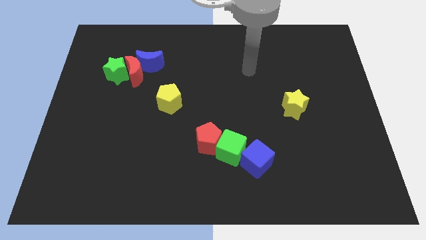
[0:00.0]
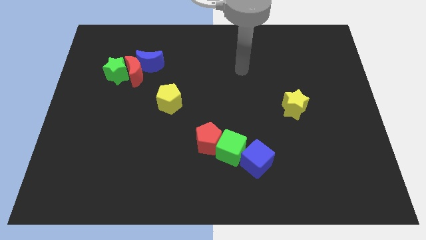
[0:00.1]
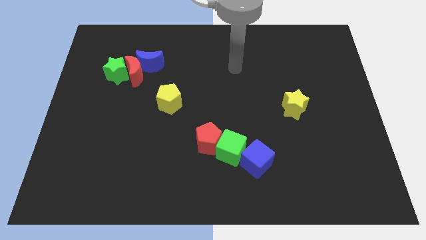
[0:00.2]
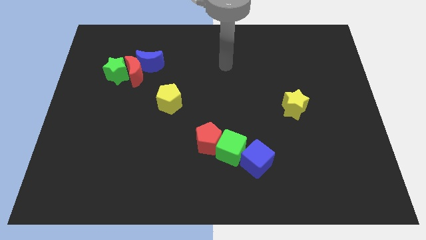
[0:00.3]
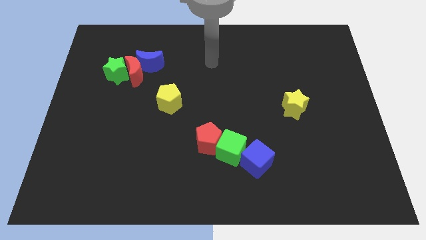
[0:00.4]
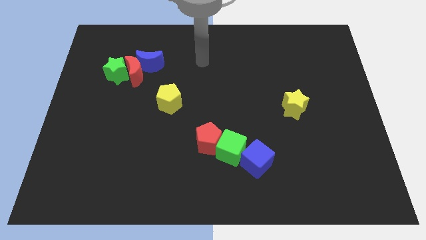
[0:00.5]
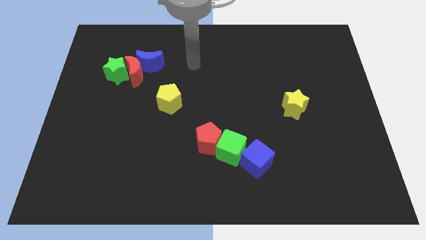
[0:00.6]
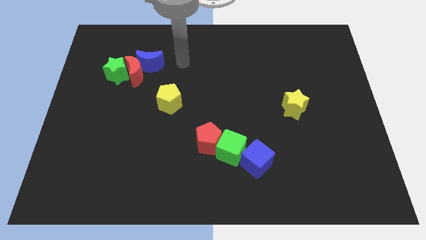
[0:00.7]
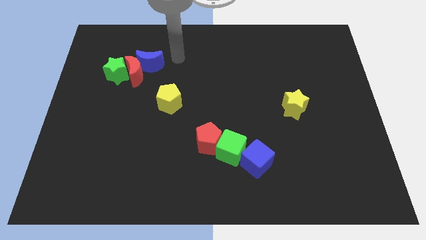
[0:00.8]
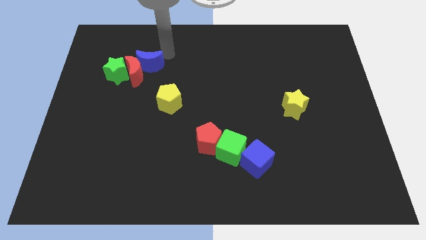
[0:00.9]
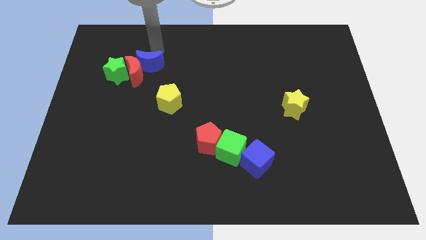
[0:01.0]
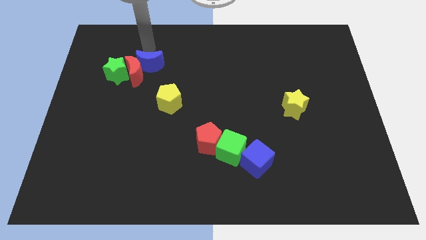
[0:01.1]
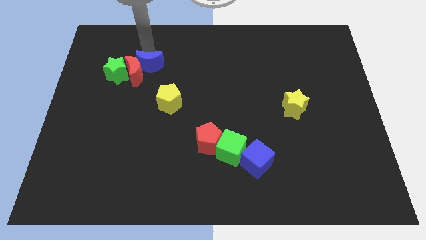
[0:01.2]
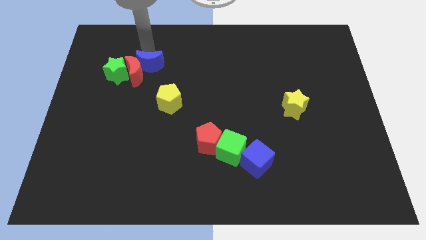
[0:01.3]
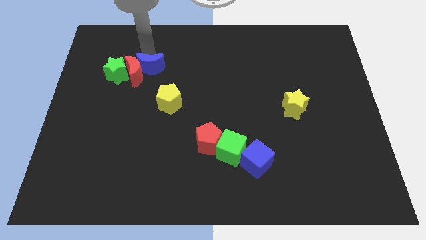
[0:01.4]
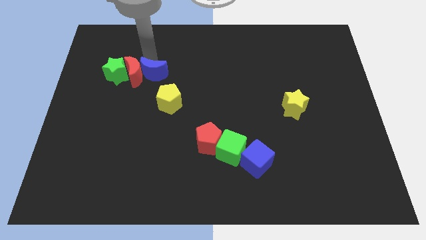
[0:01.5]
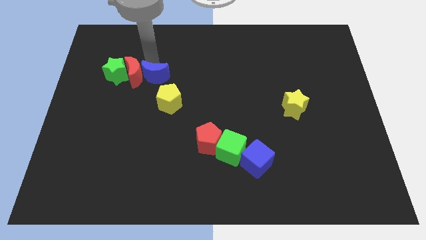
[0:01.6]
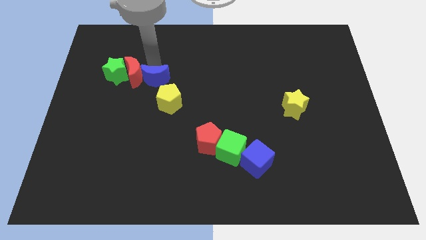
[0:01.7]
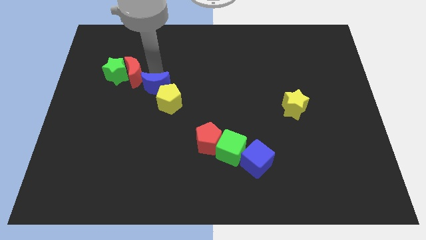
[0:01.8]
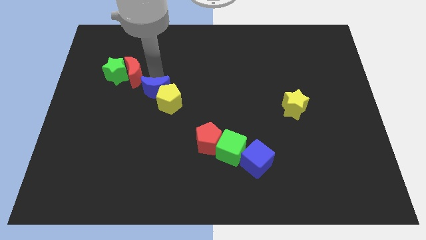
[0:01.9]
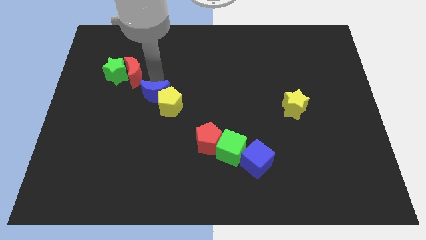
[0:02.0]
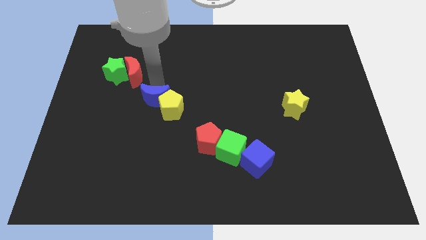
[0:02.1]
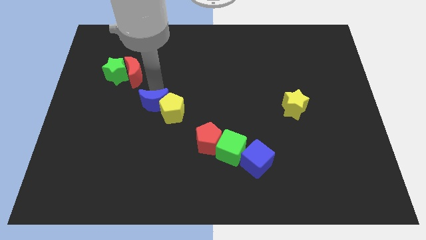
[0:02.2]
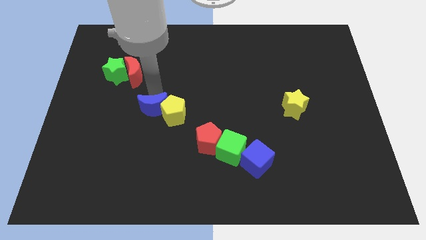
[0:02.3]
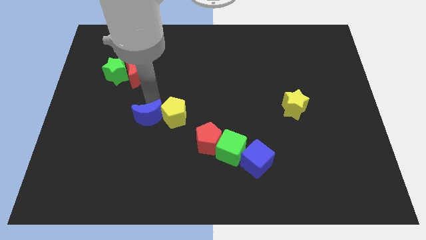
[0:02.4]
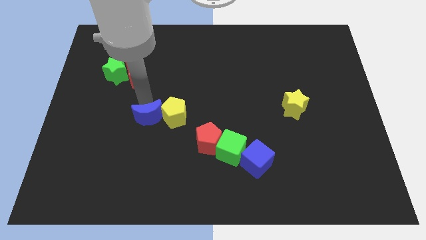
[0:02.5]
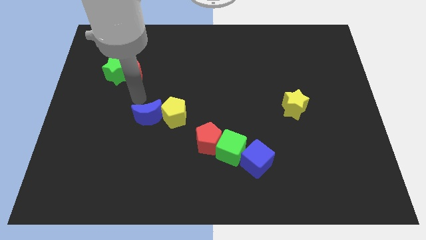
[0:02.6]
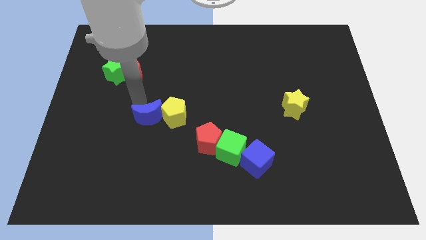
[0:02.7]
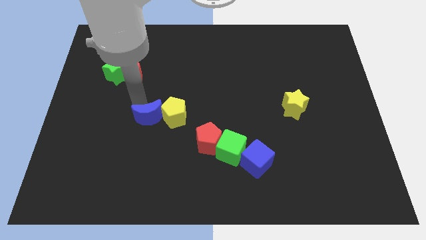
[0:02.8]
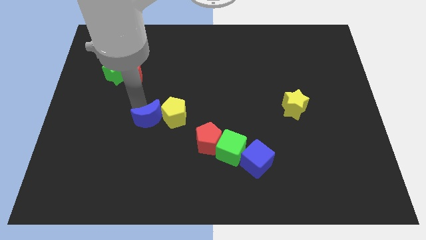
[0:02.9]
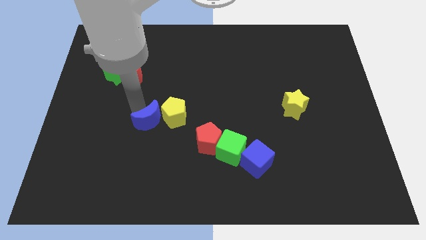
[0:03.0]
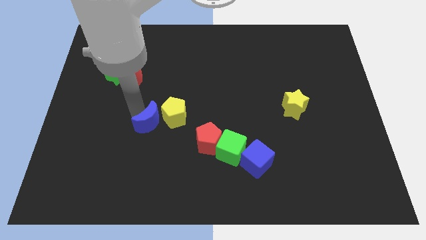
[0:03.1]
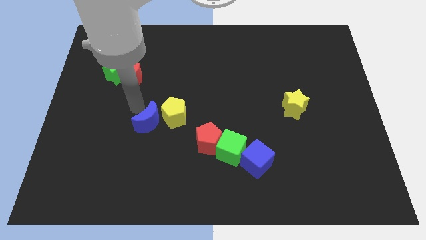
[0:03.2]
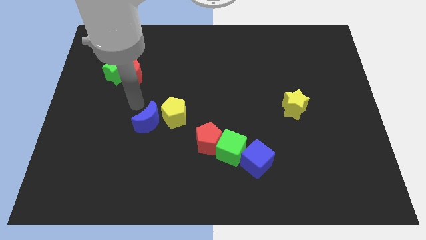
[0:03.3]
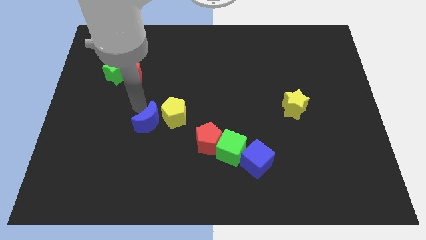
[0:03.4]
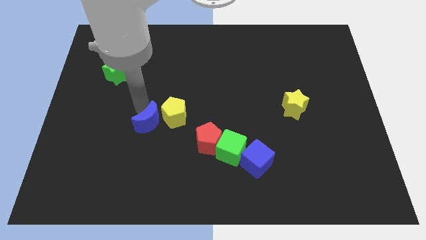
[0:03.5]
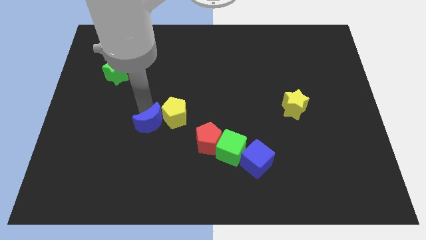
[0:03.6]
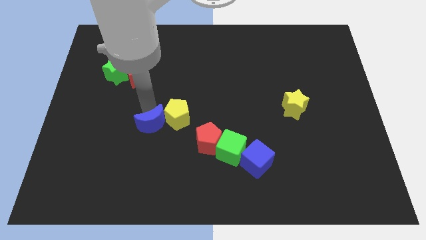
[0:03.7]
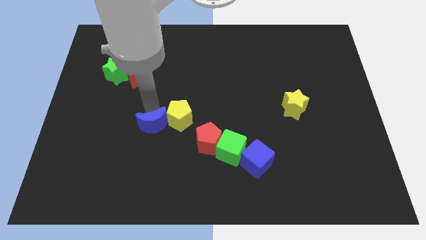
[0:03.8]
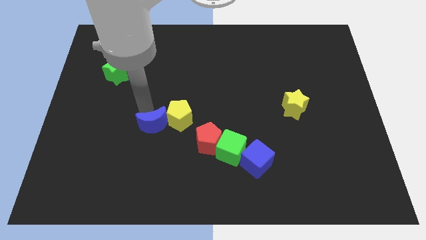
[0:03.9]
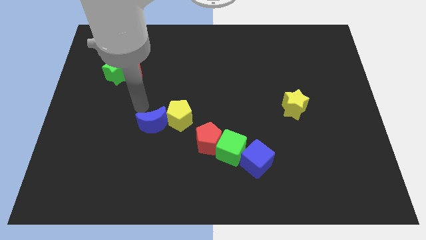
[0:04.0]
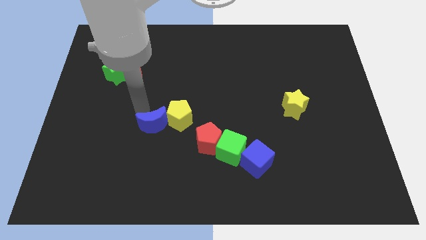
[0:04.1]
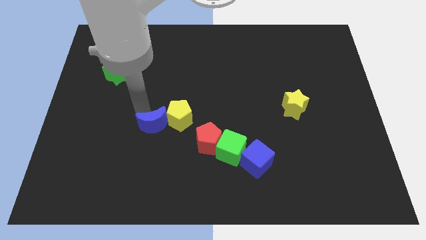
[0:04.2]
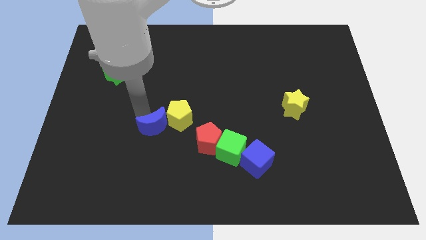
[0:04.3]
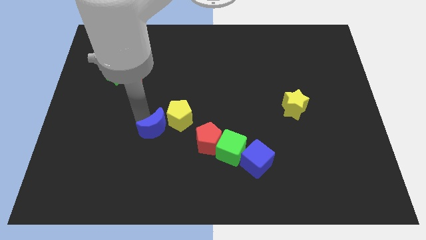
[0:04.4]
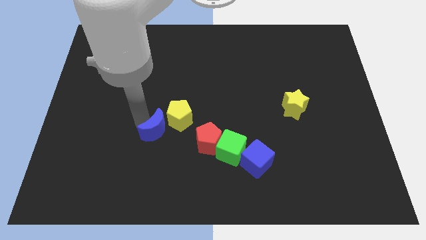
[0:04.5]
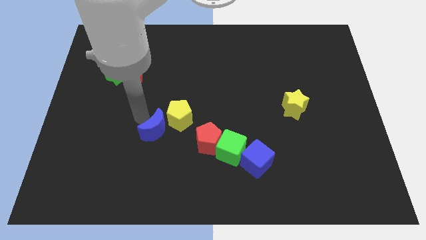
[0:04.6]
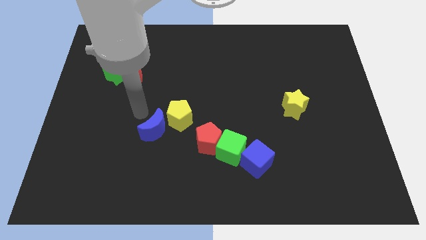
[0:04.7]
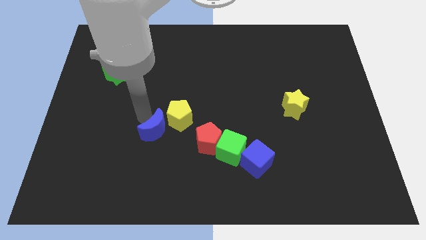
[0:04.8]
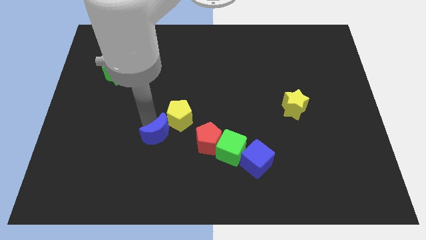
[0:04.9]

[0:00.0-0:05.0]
put the blue moon below the yellow pentagon

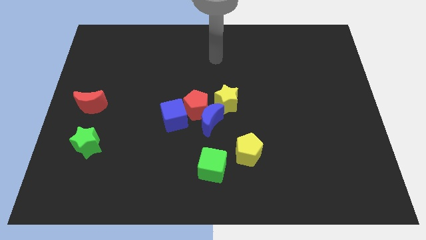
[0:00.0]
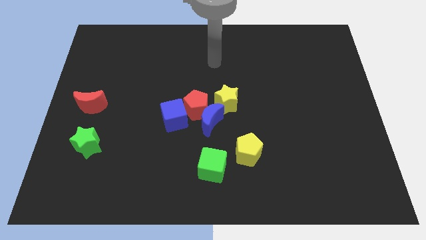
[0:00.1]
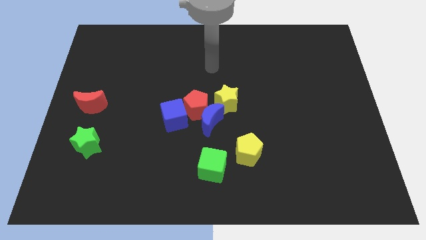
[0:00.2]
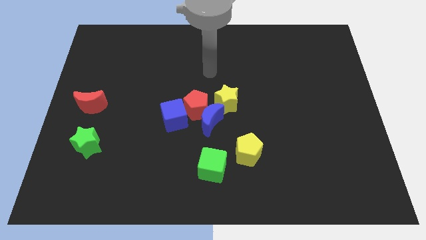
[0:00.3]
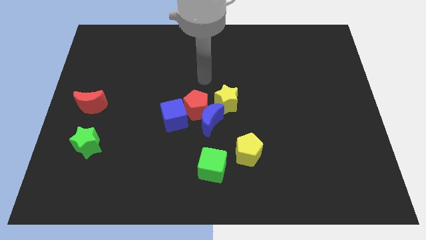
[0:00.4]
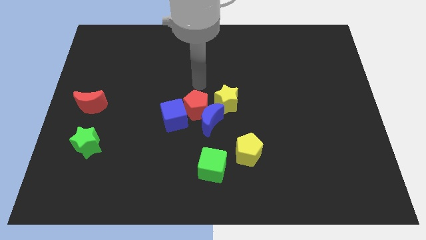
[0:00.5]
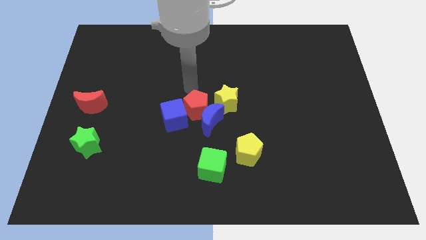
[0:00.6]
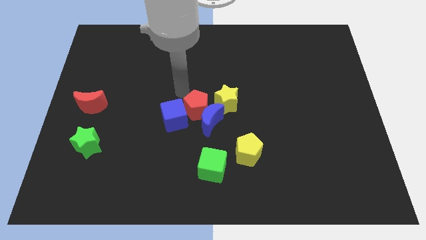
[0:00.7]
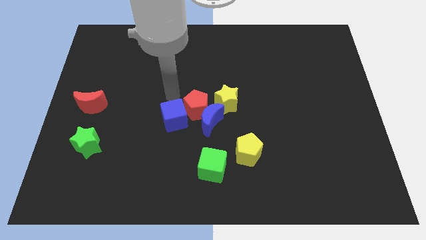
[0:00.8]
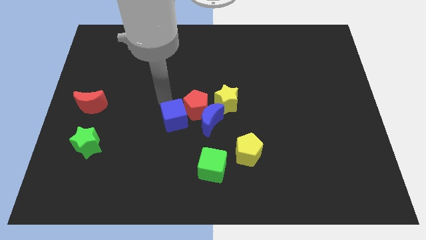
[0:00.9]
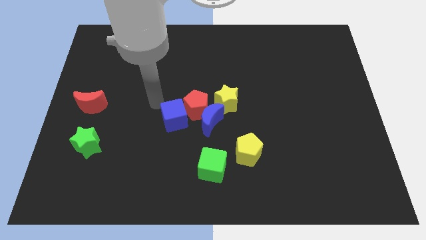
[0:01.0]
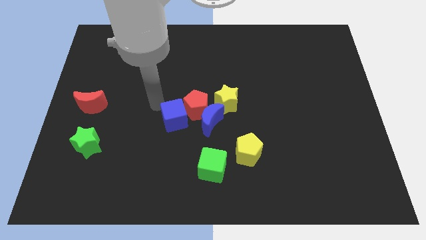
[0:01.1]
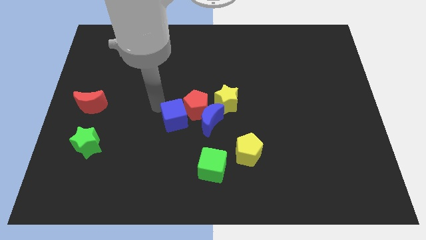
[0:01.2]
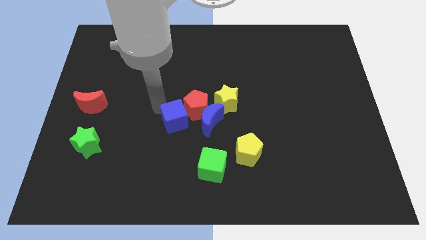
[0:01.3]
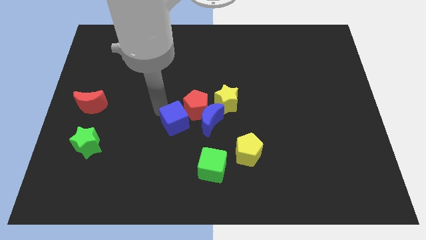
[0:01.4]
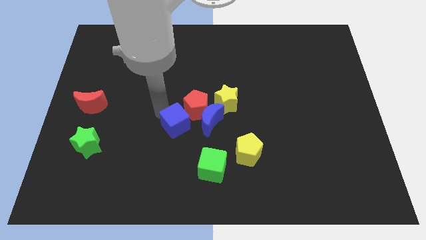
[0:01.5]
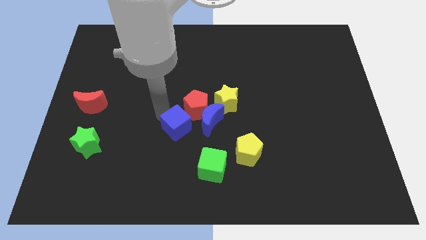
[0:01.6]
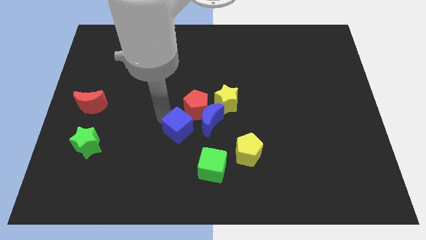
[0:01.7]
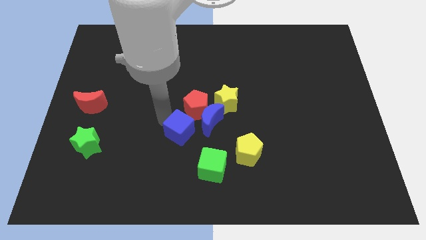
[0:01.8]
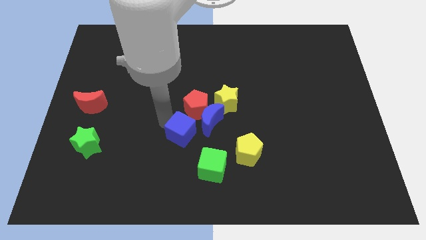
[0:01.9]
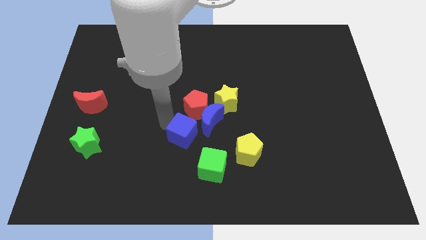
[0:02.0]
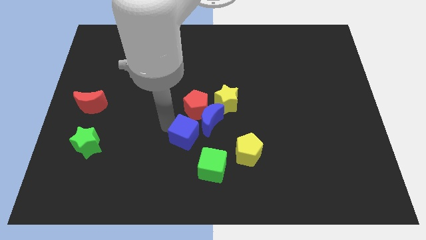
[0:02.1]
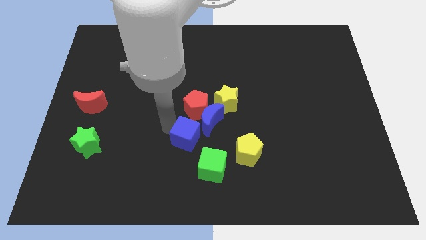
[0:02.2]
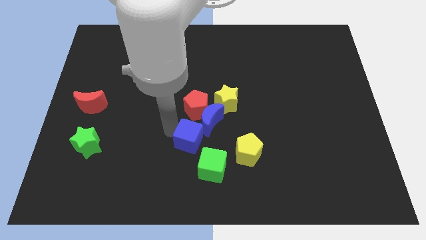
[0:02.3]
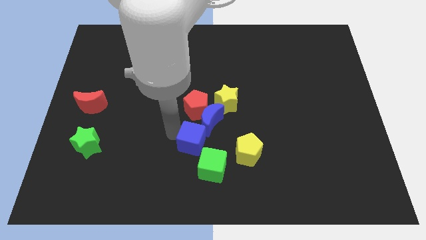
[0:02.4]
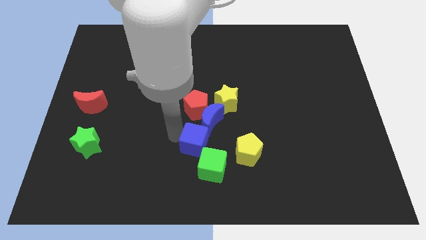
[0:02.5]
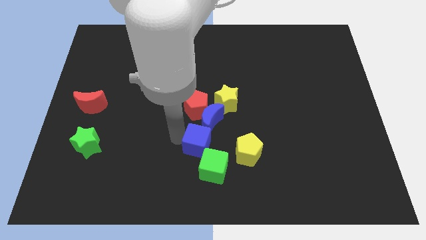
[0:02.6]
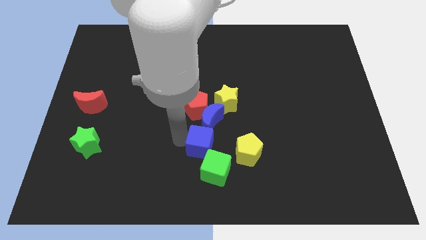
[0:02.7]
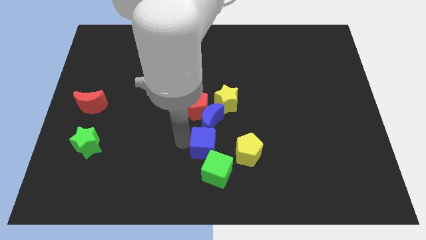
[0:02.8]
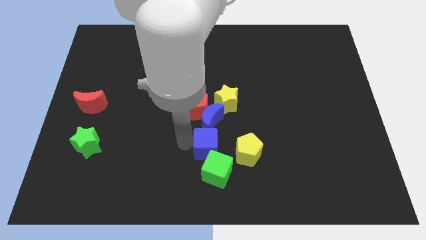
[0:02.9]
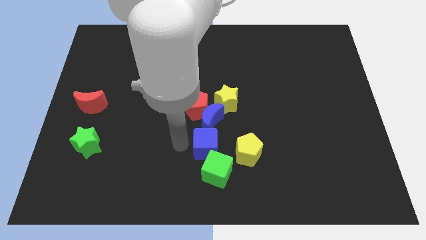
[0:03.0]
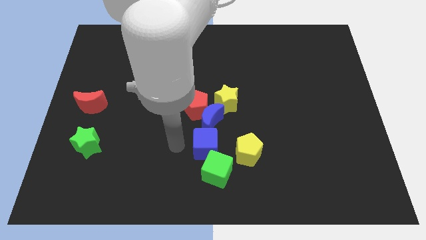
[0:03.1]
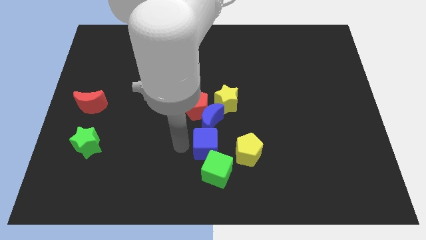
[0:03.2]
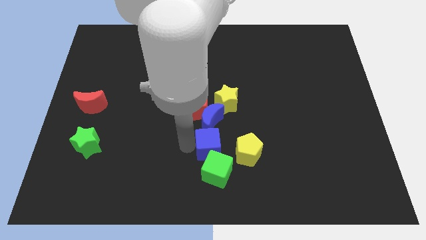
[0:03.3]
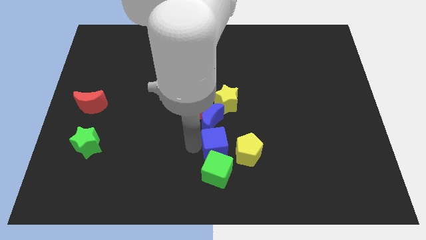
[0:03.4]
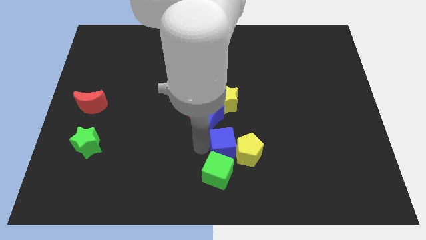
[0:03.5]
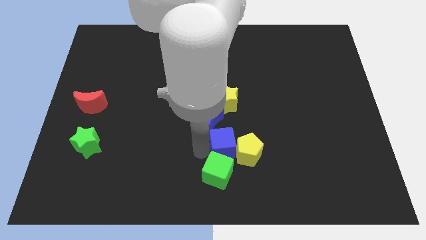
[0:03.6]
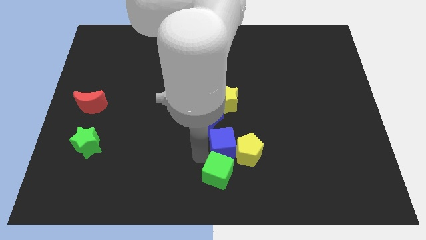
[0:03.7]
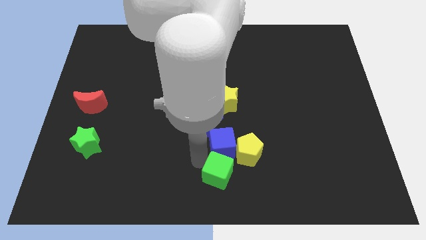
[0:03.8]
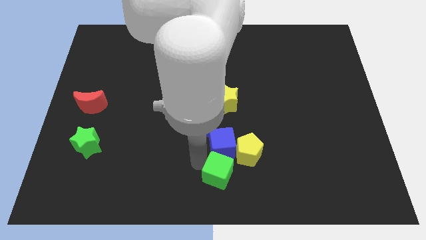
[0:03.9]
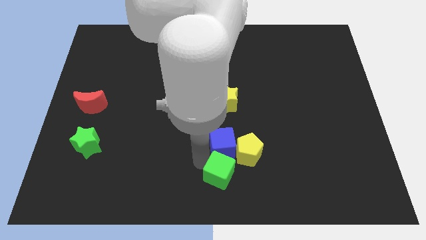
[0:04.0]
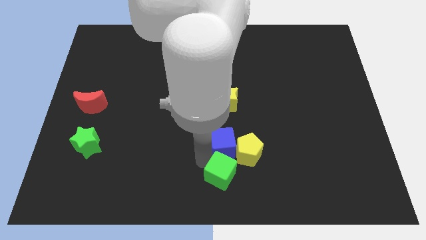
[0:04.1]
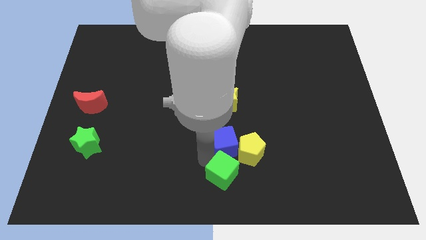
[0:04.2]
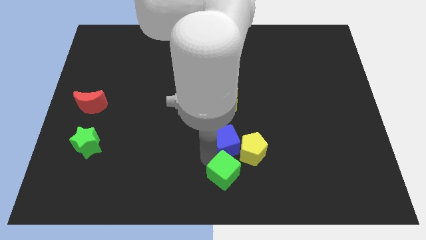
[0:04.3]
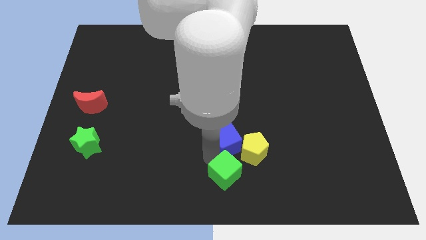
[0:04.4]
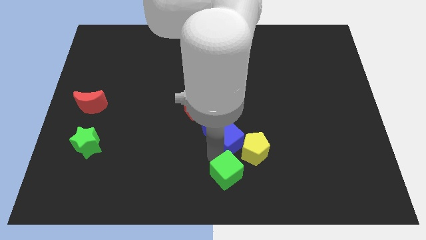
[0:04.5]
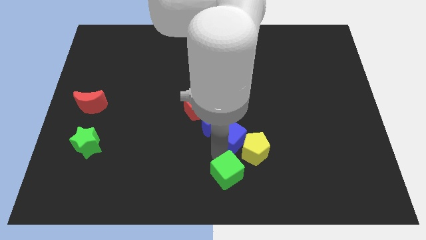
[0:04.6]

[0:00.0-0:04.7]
push the blue cube to the right side of the blue moon
